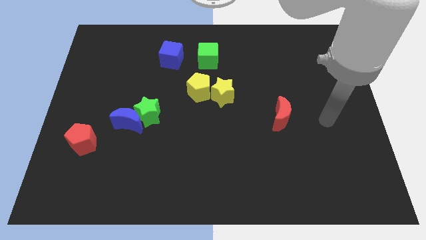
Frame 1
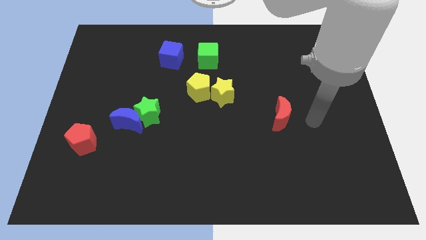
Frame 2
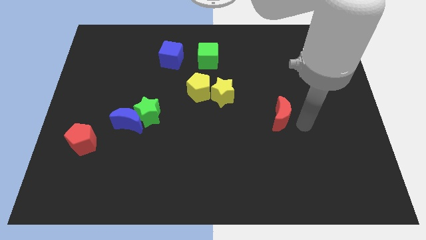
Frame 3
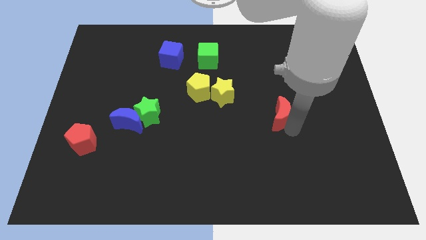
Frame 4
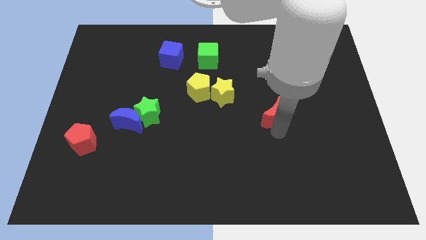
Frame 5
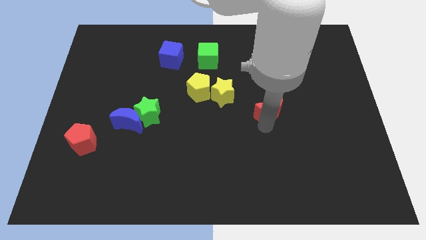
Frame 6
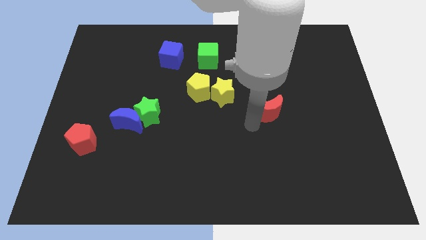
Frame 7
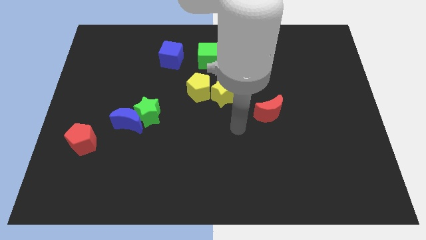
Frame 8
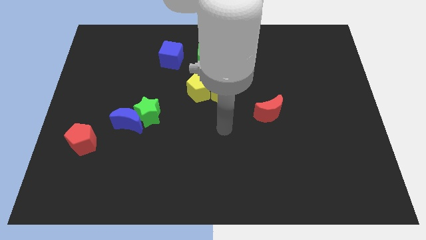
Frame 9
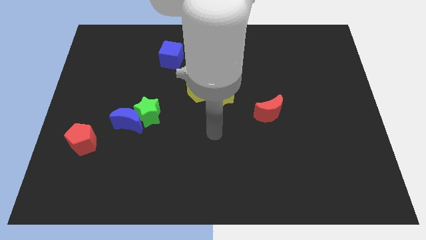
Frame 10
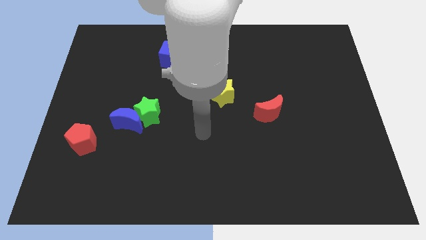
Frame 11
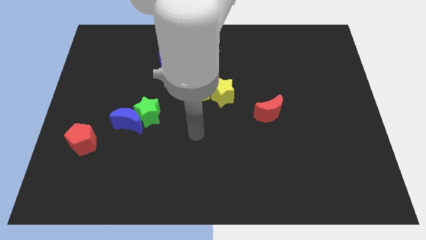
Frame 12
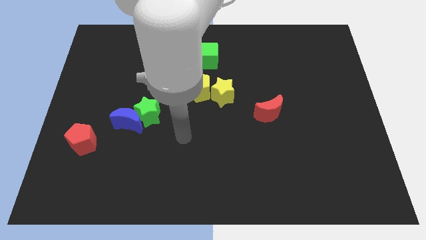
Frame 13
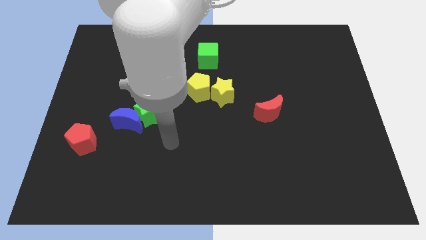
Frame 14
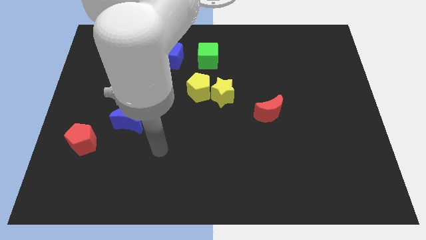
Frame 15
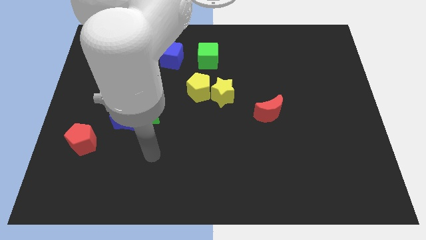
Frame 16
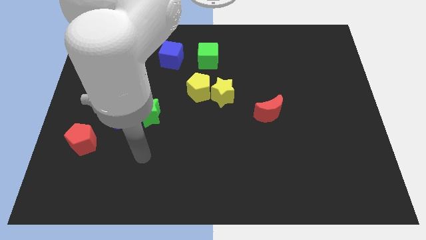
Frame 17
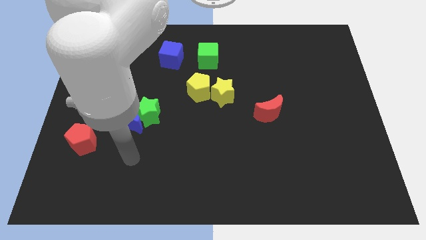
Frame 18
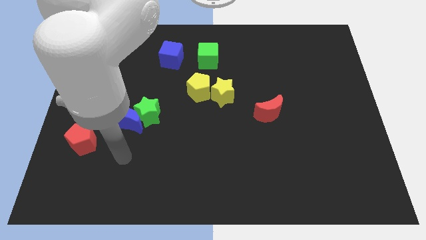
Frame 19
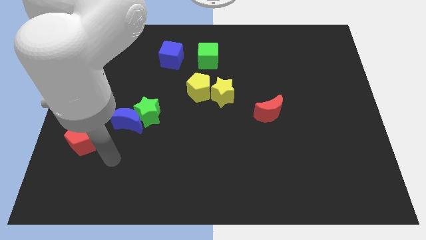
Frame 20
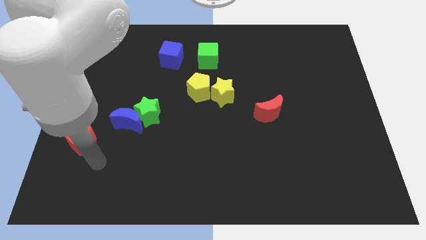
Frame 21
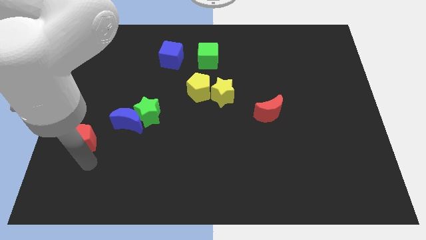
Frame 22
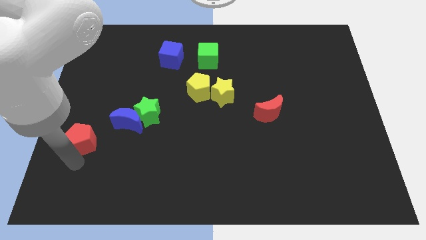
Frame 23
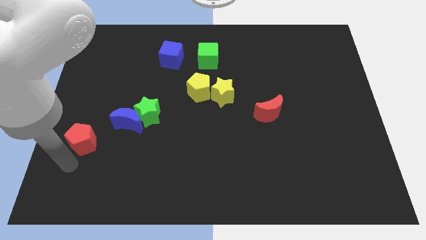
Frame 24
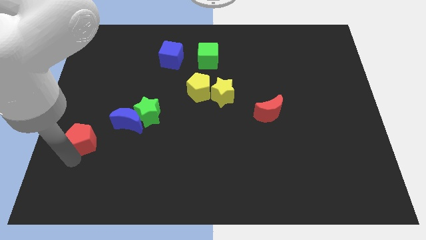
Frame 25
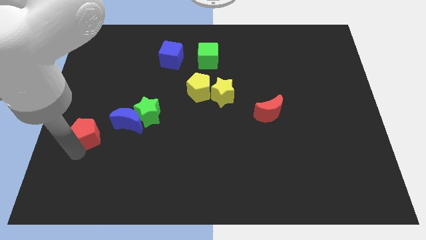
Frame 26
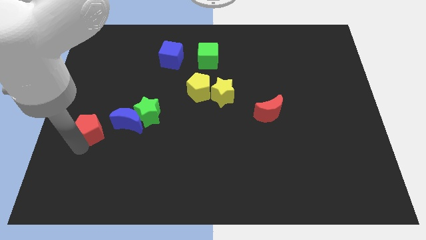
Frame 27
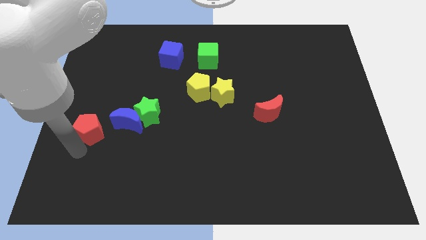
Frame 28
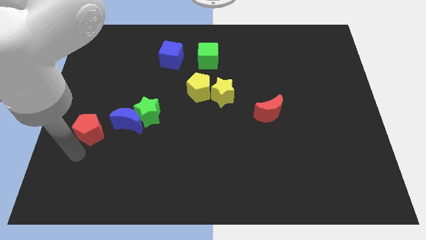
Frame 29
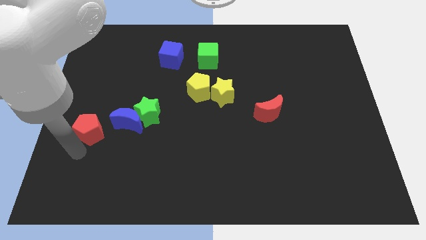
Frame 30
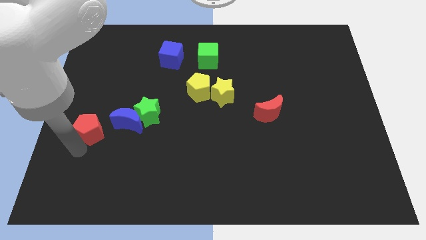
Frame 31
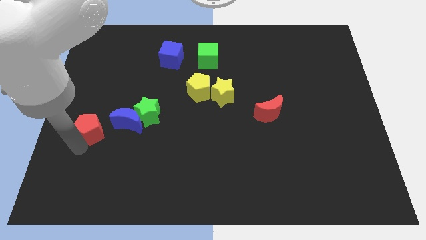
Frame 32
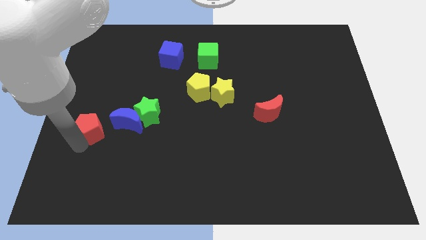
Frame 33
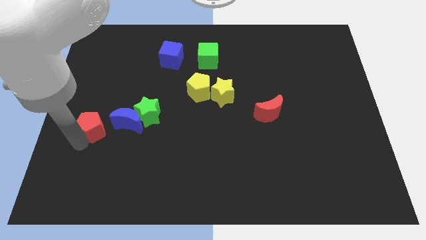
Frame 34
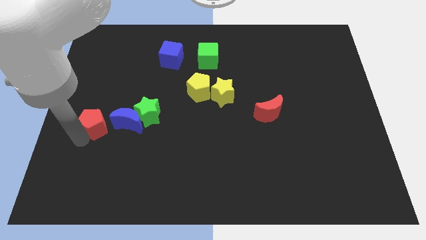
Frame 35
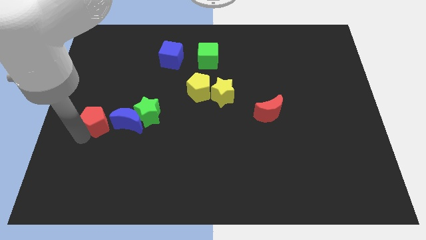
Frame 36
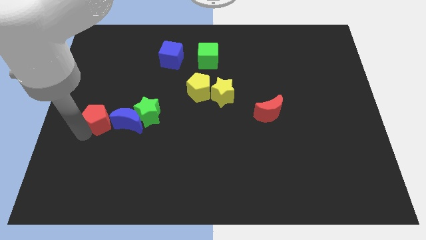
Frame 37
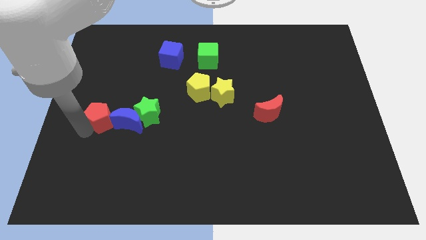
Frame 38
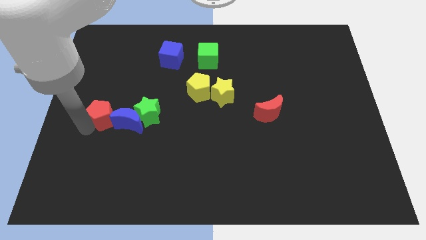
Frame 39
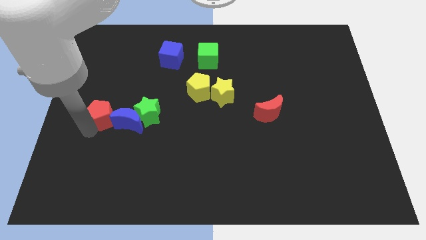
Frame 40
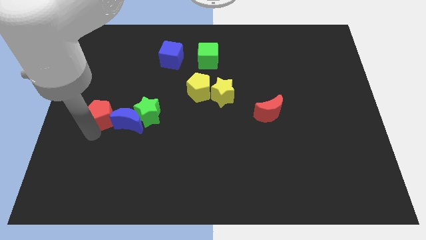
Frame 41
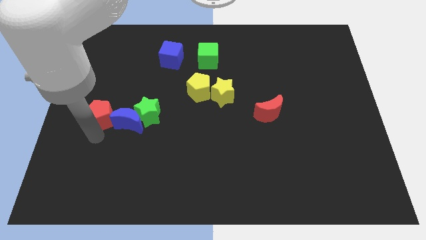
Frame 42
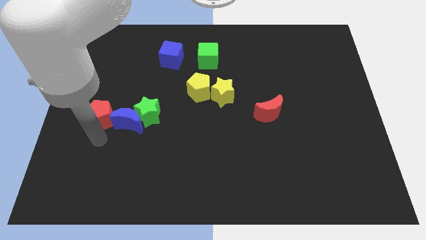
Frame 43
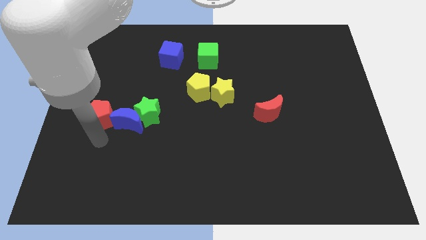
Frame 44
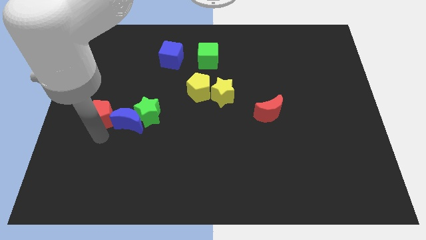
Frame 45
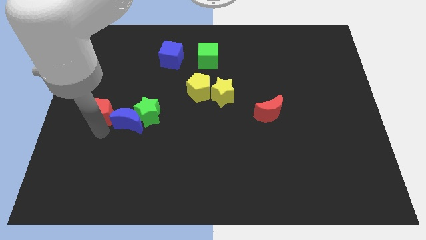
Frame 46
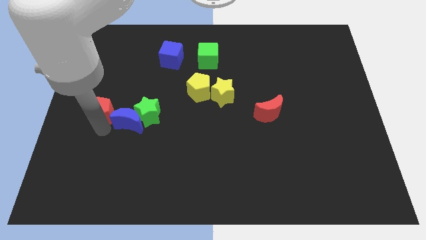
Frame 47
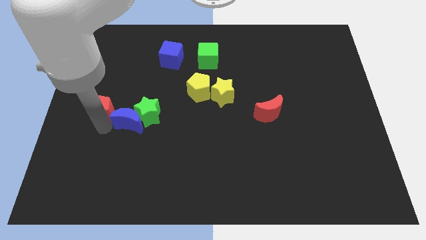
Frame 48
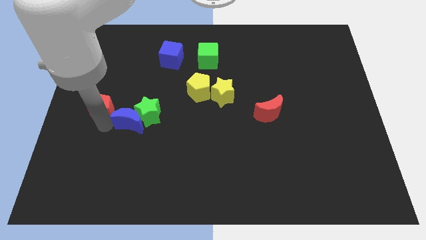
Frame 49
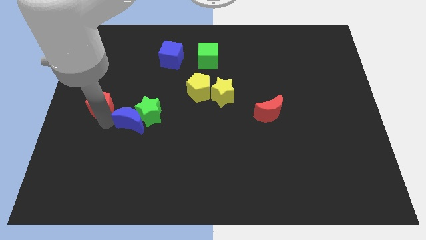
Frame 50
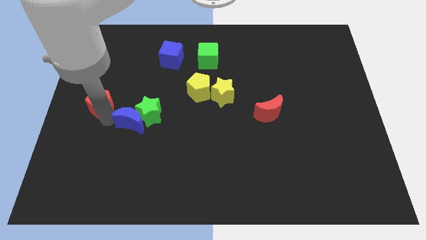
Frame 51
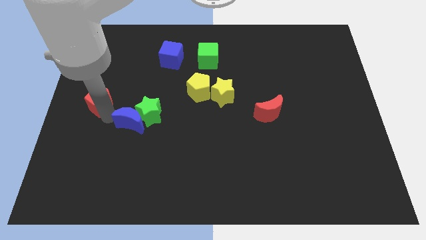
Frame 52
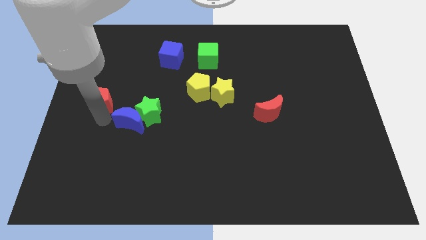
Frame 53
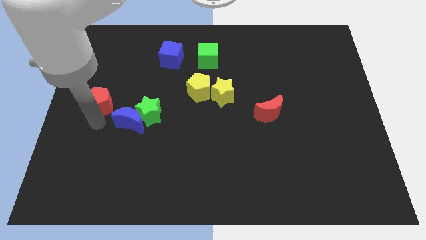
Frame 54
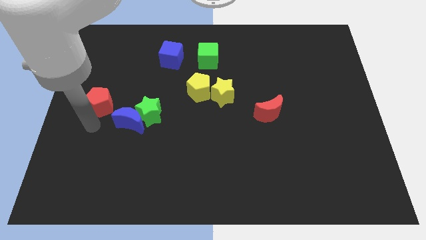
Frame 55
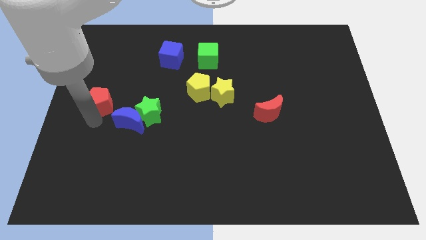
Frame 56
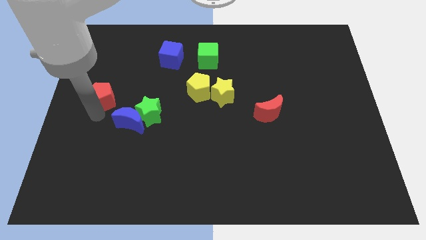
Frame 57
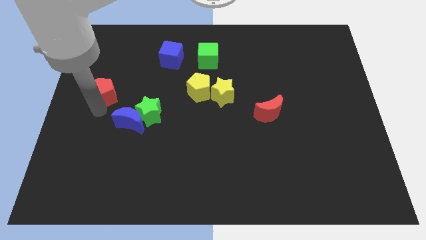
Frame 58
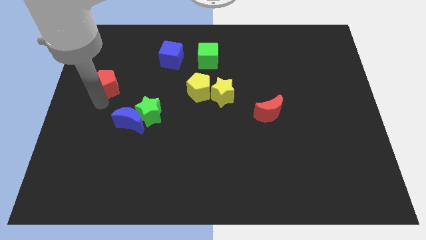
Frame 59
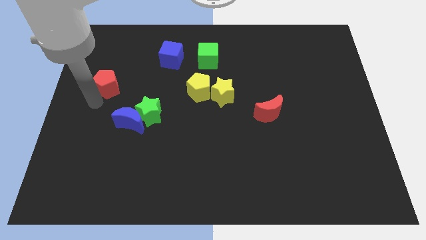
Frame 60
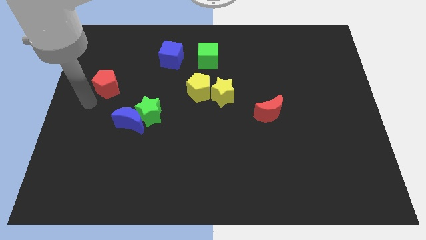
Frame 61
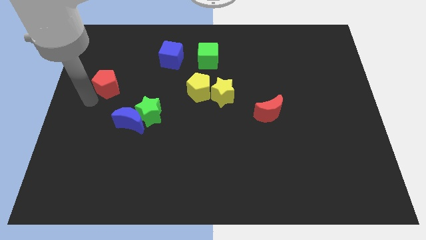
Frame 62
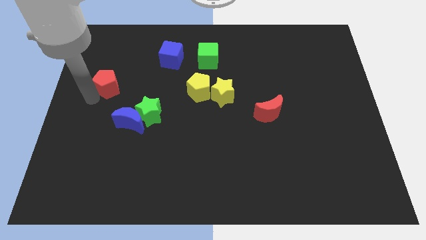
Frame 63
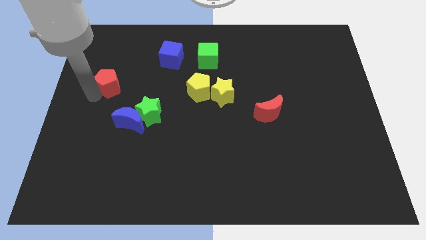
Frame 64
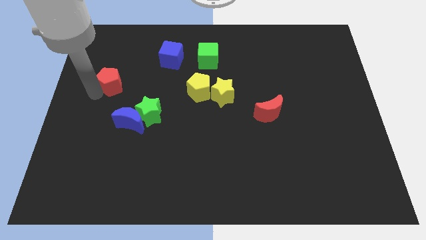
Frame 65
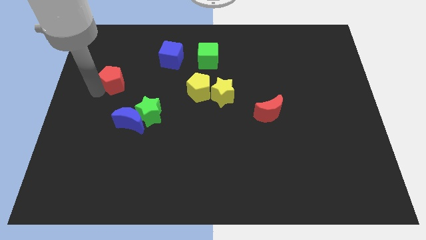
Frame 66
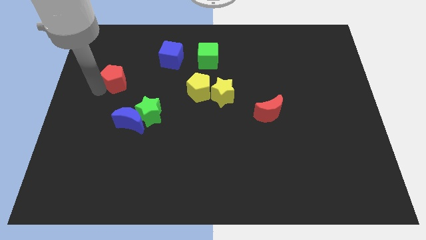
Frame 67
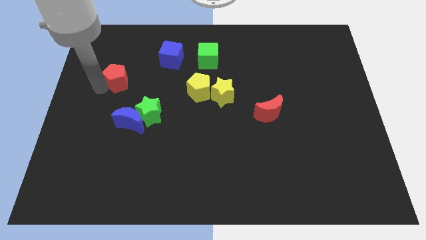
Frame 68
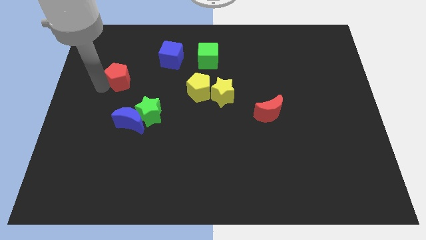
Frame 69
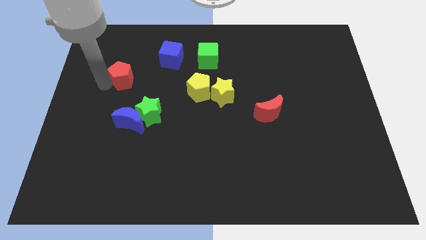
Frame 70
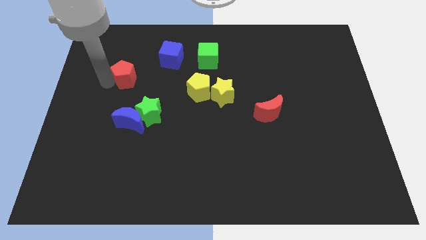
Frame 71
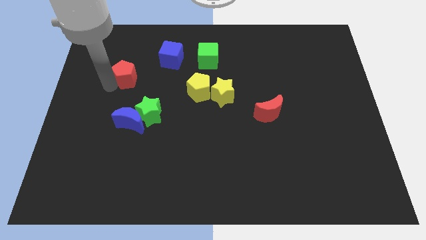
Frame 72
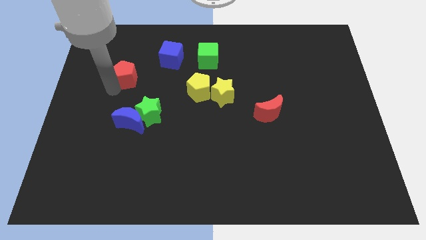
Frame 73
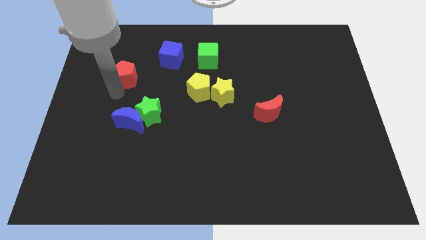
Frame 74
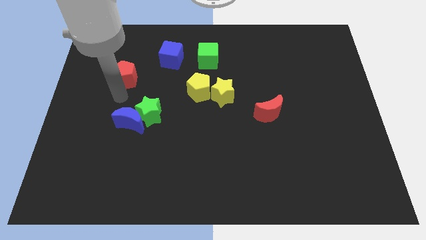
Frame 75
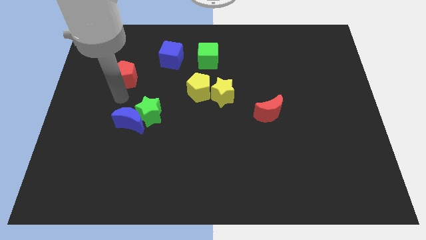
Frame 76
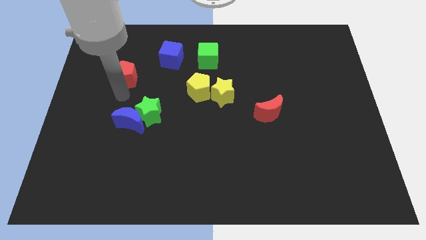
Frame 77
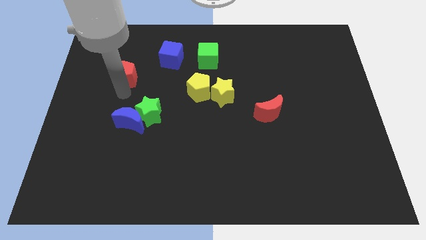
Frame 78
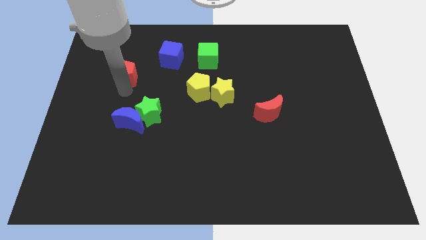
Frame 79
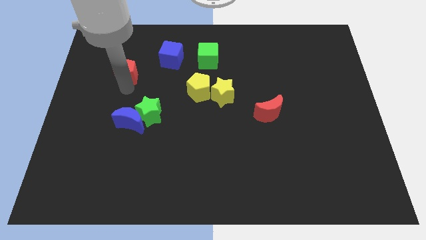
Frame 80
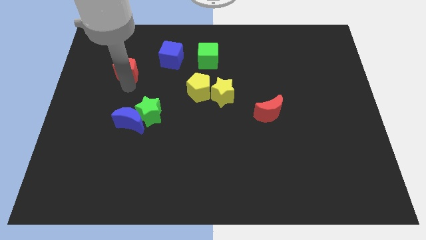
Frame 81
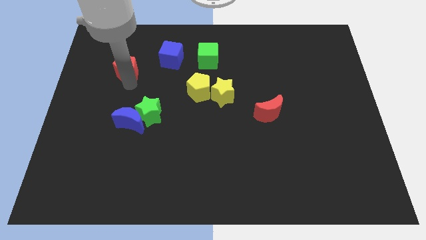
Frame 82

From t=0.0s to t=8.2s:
push the red pentagon just left of the blue cube
